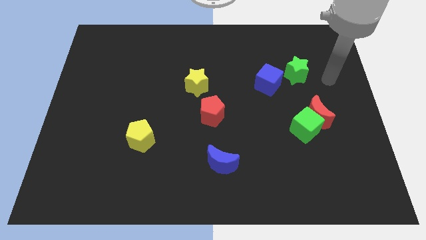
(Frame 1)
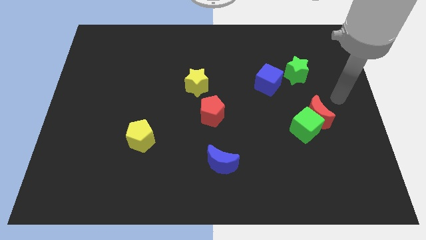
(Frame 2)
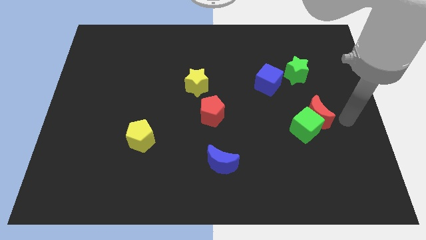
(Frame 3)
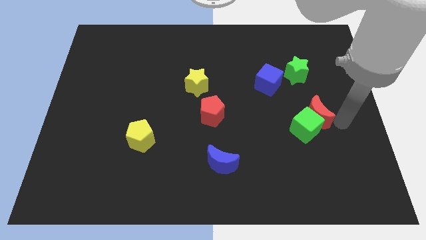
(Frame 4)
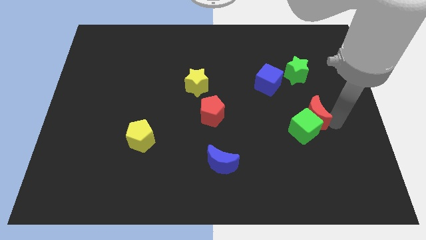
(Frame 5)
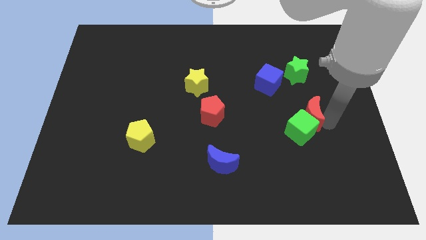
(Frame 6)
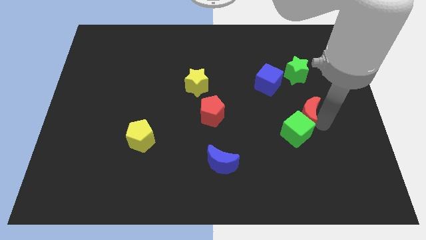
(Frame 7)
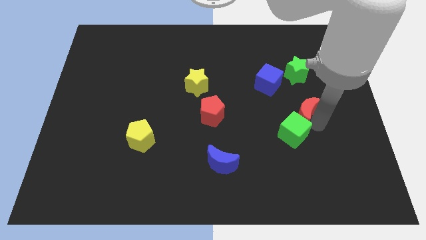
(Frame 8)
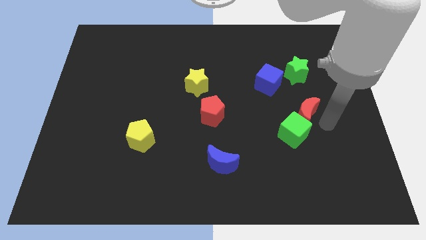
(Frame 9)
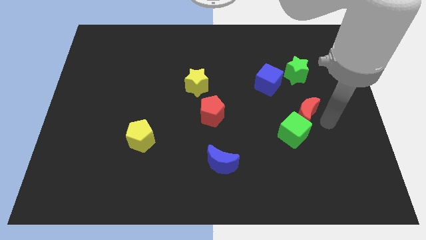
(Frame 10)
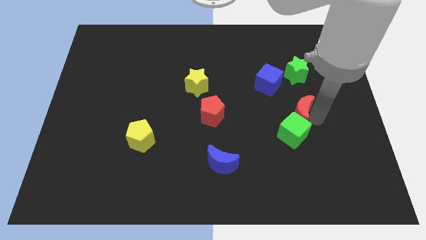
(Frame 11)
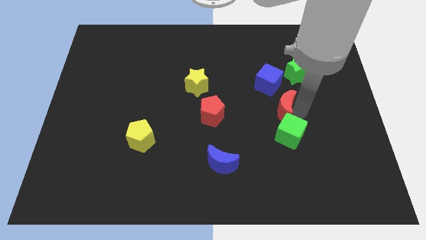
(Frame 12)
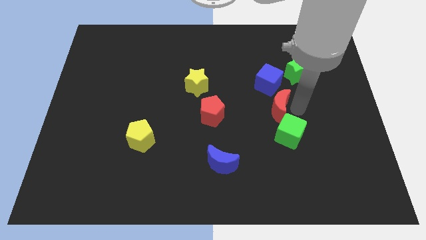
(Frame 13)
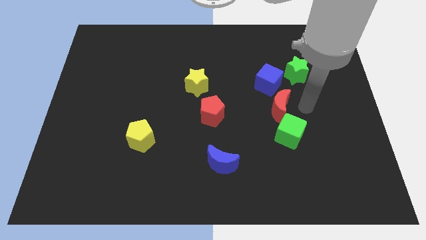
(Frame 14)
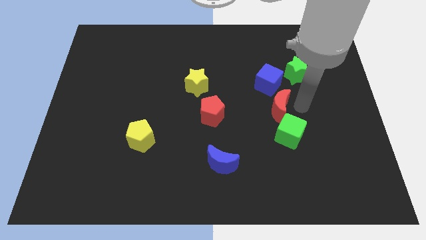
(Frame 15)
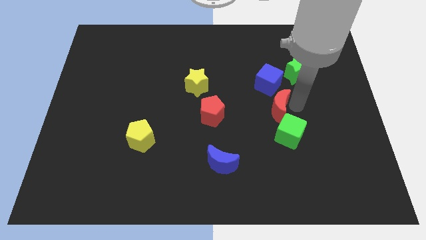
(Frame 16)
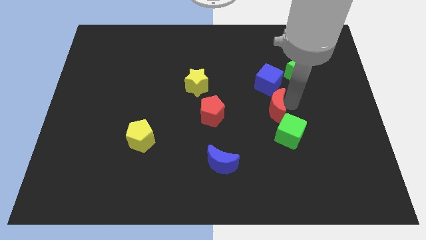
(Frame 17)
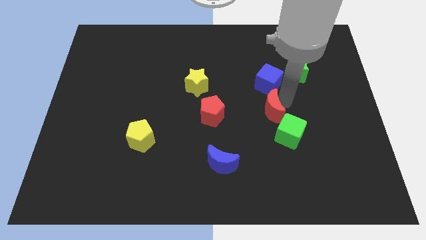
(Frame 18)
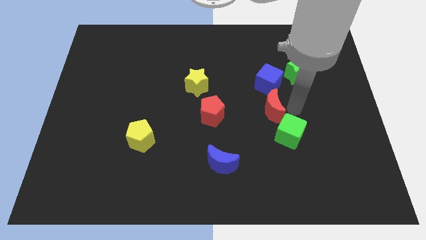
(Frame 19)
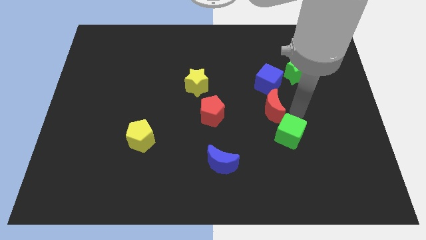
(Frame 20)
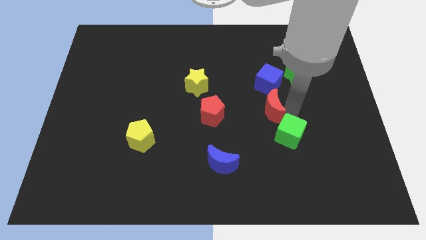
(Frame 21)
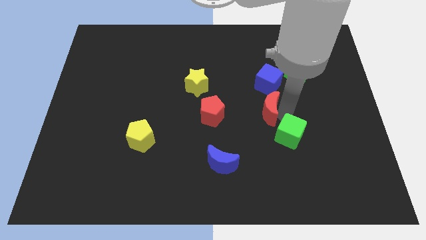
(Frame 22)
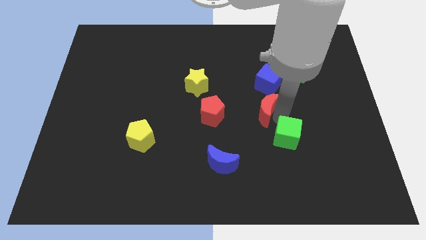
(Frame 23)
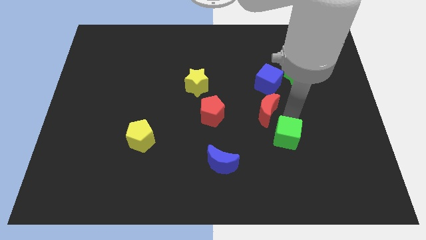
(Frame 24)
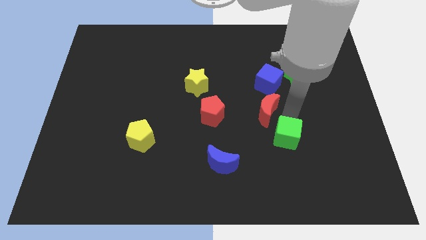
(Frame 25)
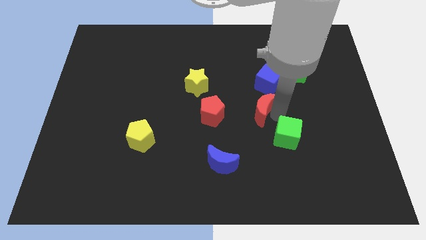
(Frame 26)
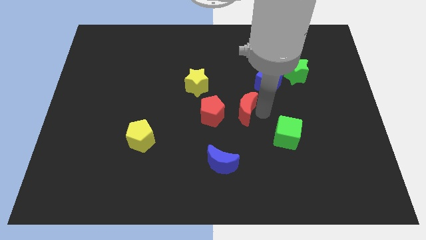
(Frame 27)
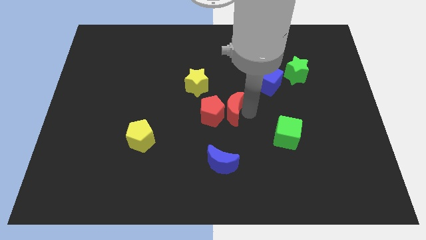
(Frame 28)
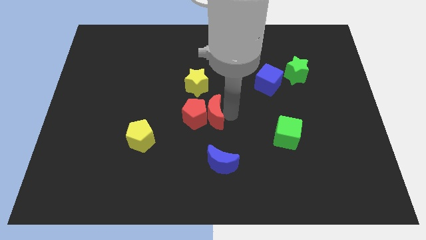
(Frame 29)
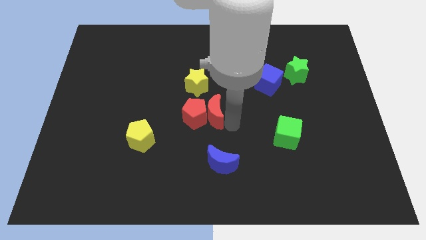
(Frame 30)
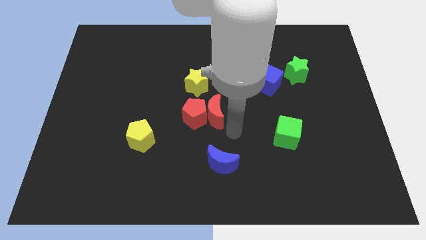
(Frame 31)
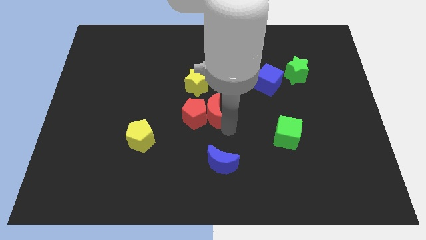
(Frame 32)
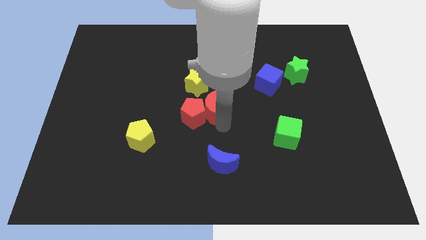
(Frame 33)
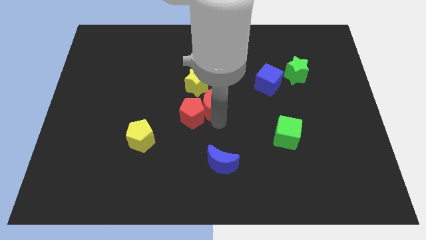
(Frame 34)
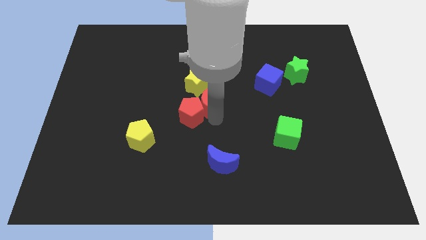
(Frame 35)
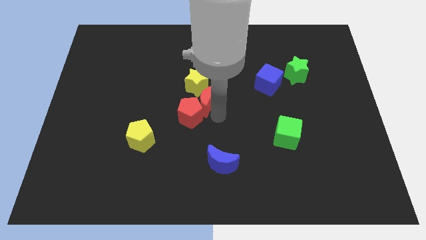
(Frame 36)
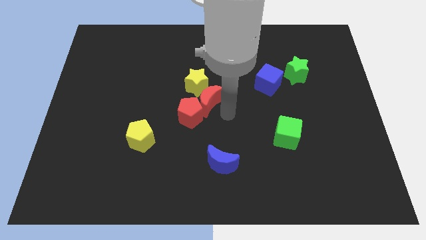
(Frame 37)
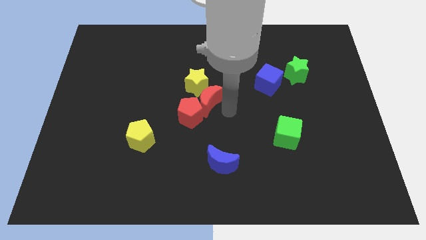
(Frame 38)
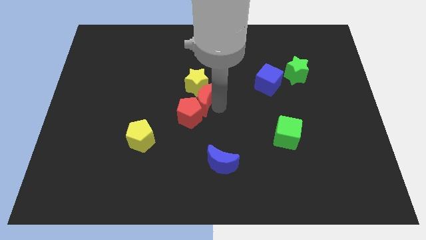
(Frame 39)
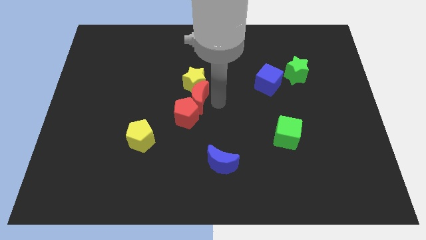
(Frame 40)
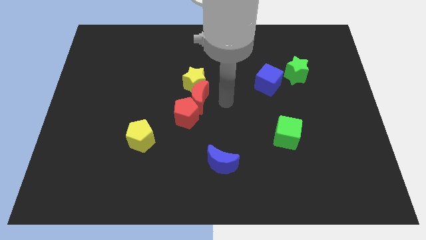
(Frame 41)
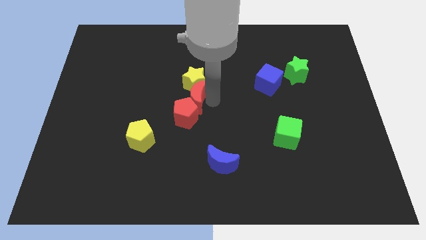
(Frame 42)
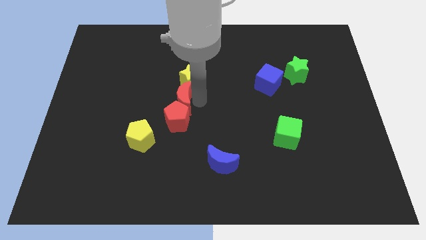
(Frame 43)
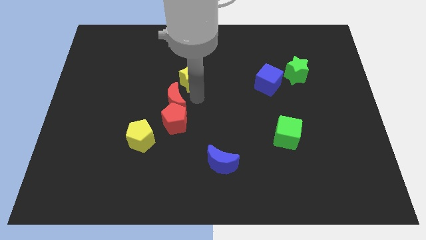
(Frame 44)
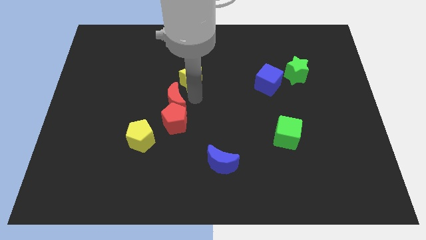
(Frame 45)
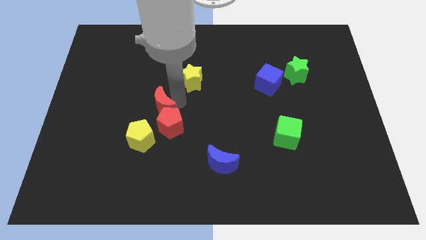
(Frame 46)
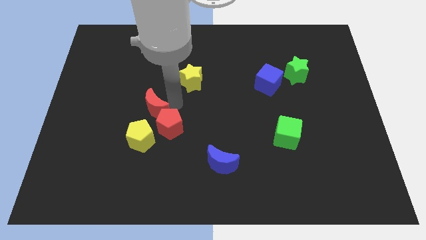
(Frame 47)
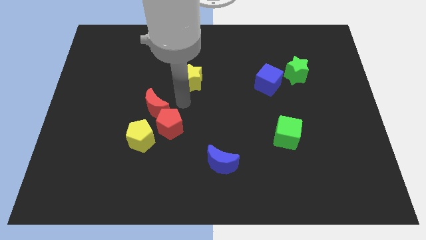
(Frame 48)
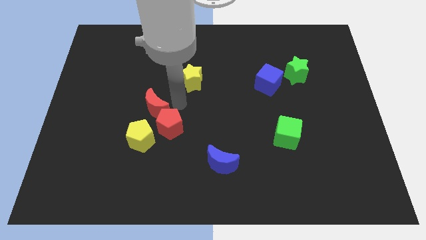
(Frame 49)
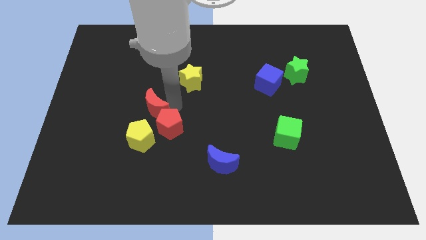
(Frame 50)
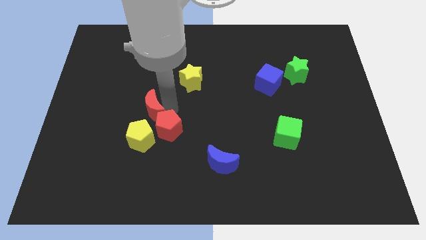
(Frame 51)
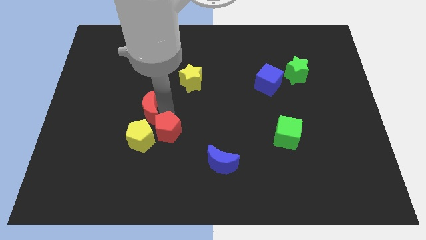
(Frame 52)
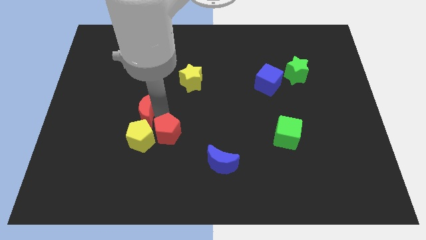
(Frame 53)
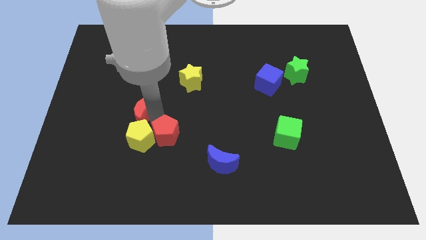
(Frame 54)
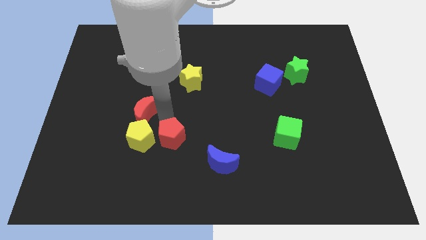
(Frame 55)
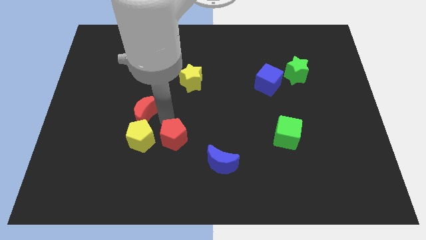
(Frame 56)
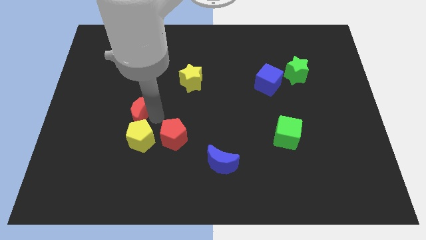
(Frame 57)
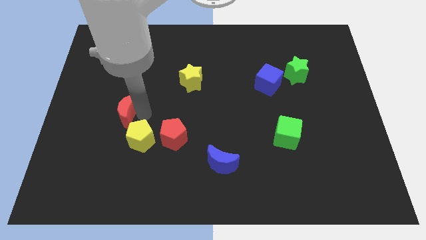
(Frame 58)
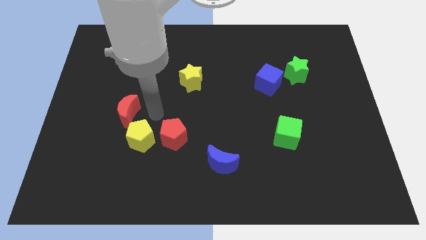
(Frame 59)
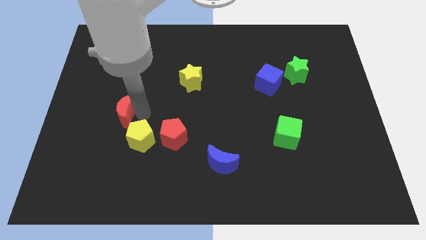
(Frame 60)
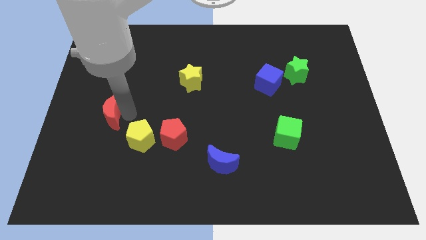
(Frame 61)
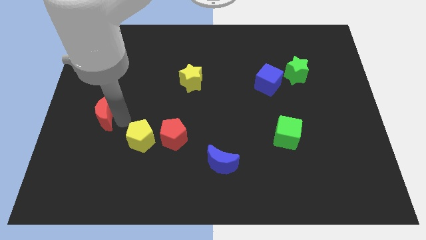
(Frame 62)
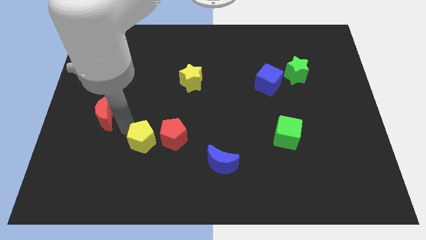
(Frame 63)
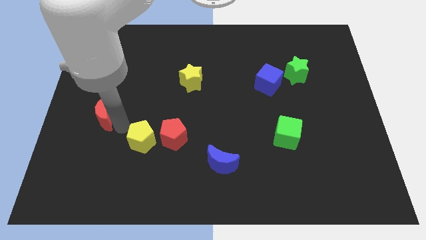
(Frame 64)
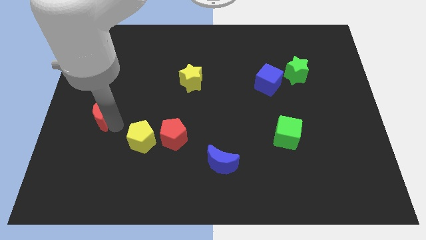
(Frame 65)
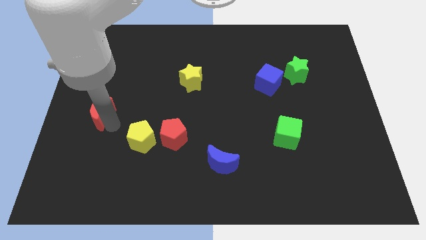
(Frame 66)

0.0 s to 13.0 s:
put the red moon to the left side

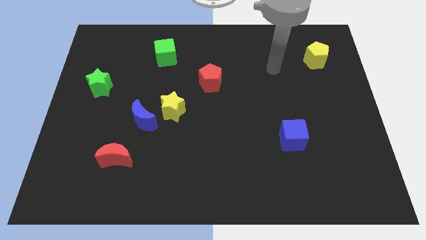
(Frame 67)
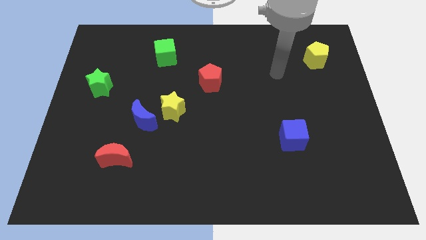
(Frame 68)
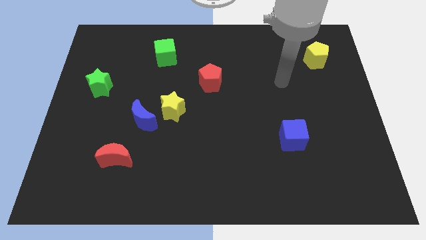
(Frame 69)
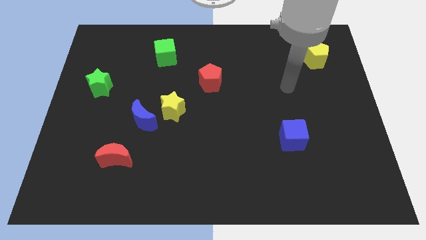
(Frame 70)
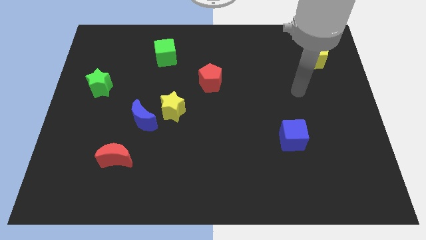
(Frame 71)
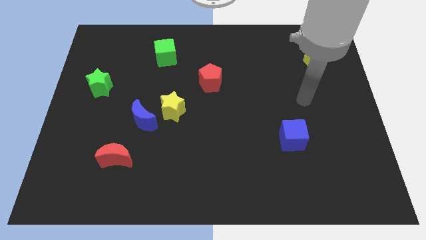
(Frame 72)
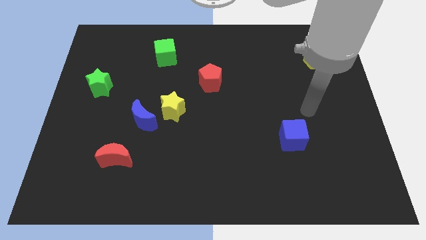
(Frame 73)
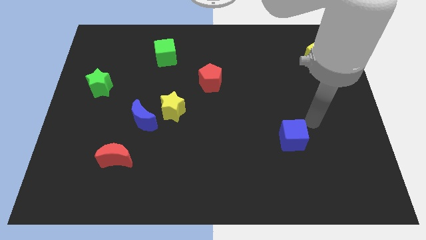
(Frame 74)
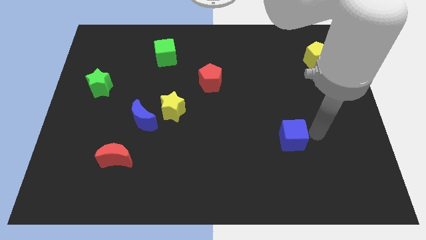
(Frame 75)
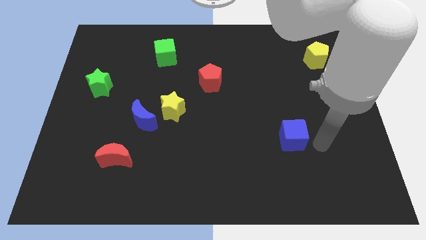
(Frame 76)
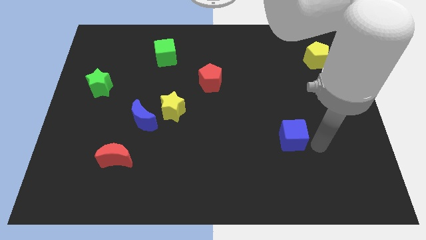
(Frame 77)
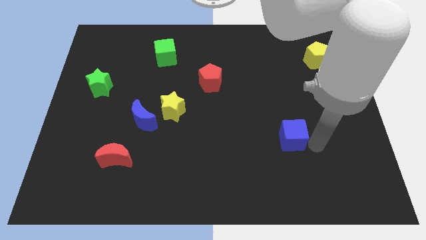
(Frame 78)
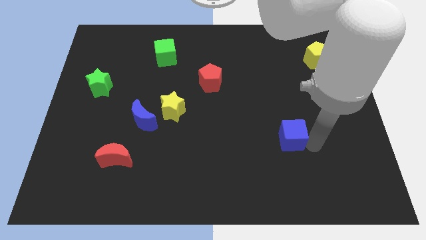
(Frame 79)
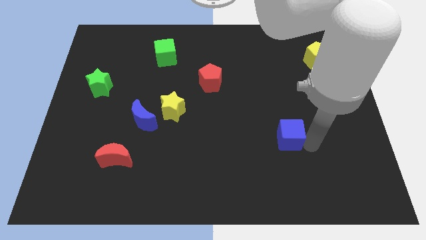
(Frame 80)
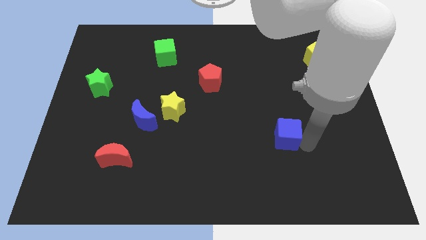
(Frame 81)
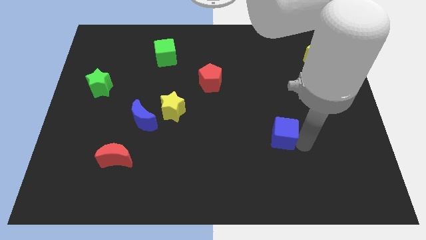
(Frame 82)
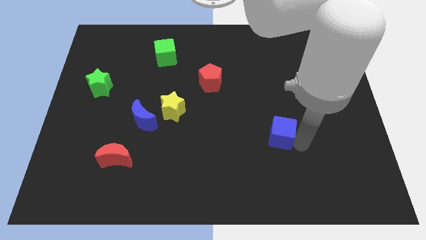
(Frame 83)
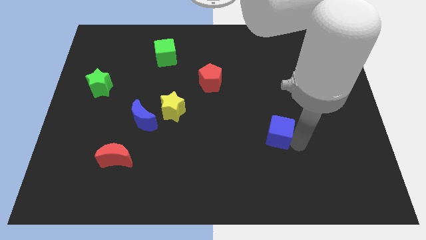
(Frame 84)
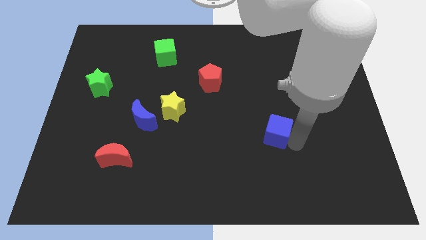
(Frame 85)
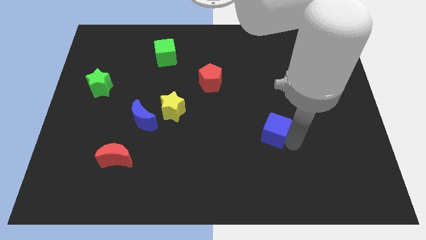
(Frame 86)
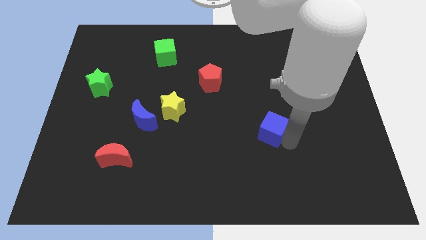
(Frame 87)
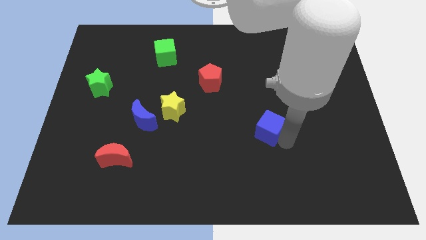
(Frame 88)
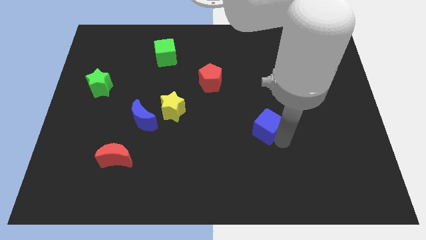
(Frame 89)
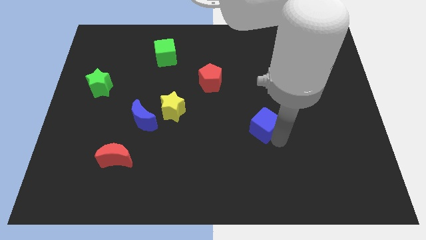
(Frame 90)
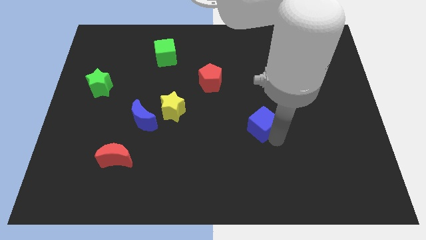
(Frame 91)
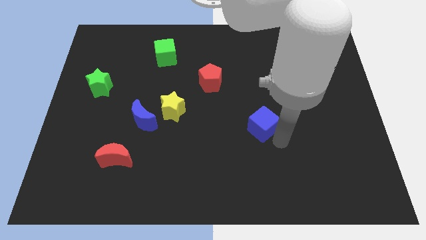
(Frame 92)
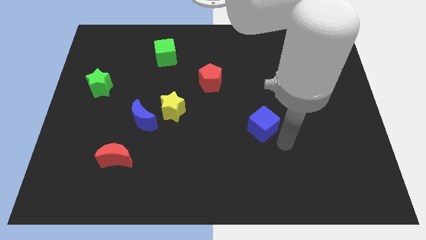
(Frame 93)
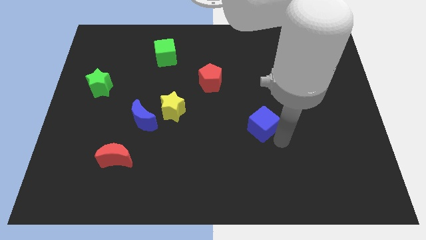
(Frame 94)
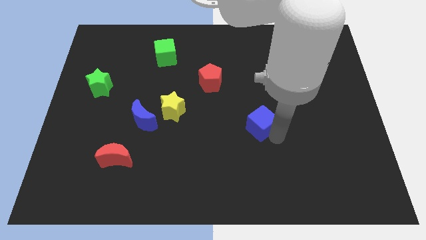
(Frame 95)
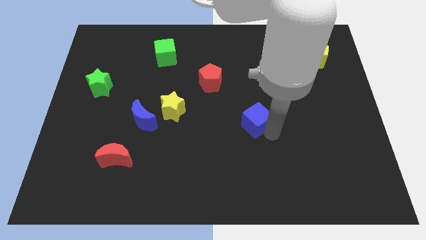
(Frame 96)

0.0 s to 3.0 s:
push the blue cube to the center
